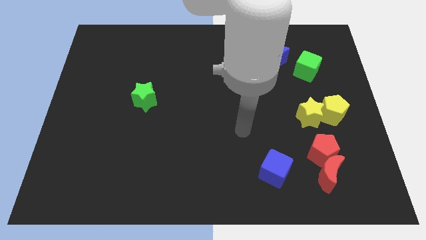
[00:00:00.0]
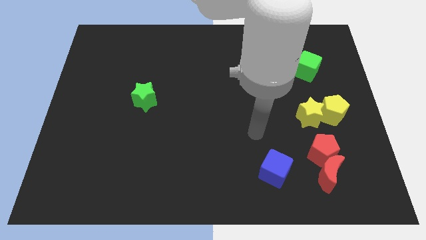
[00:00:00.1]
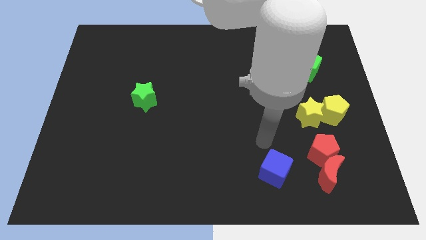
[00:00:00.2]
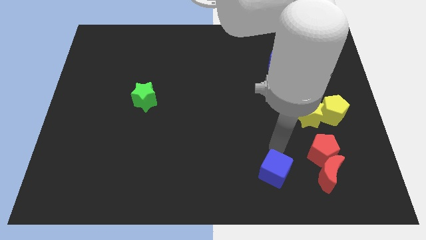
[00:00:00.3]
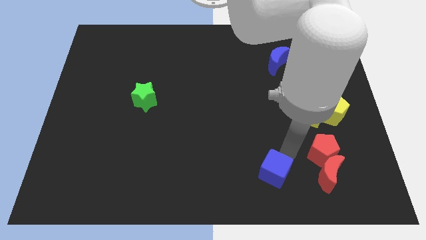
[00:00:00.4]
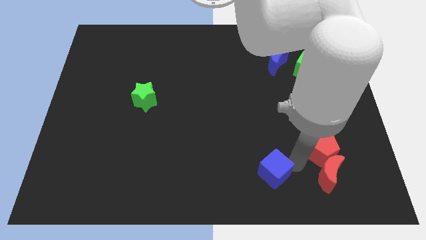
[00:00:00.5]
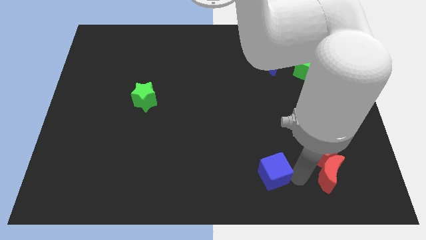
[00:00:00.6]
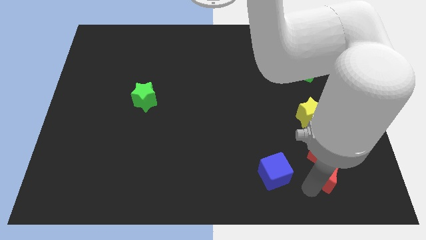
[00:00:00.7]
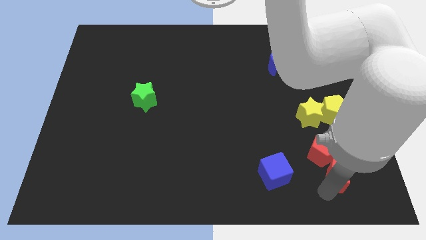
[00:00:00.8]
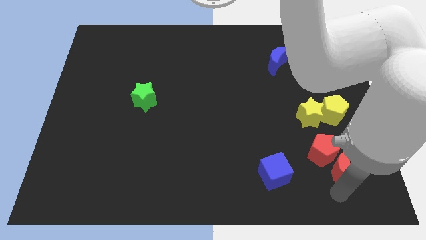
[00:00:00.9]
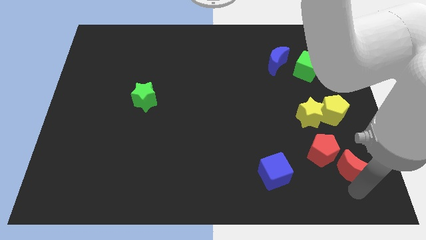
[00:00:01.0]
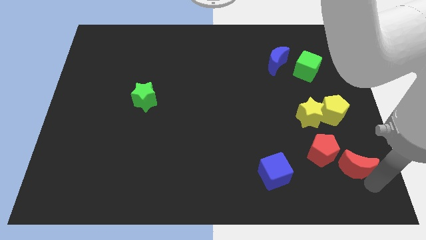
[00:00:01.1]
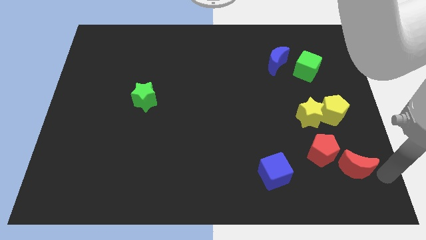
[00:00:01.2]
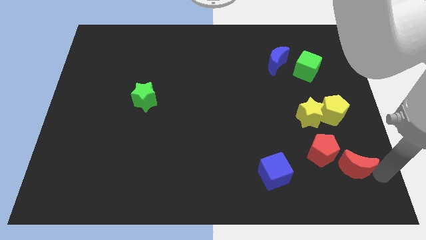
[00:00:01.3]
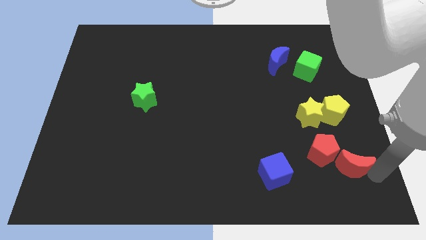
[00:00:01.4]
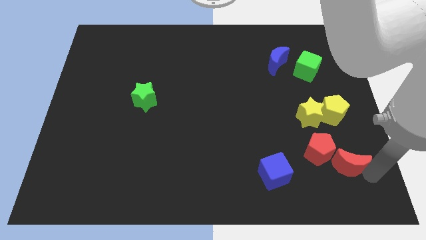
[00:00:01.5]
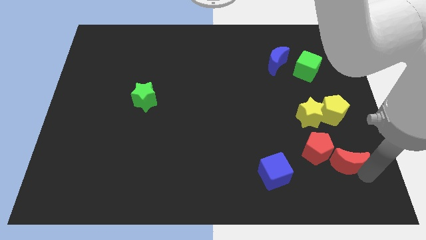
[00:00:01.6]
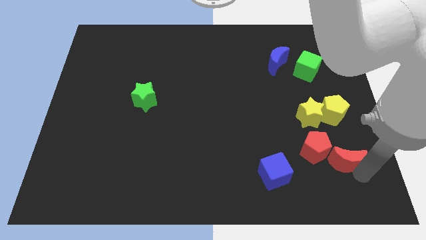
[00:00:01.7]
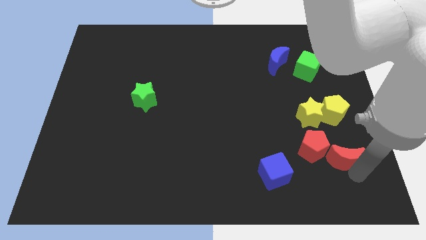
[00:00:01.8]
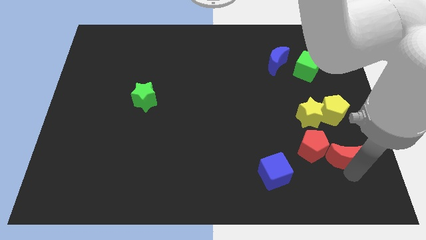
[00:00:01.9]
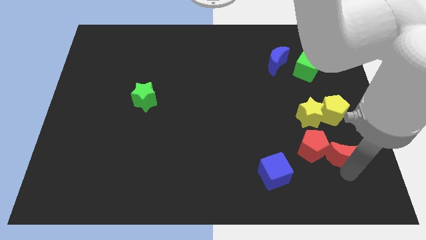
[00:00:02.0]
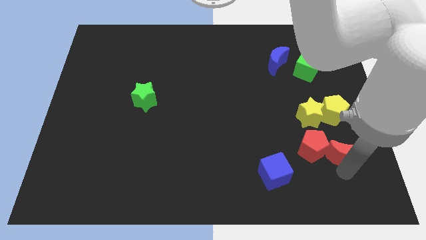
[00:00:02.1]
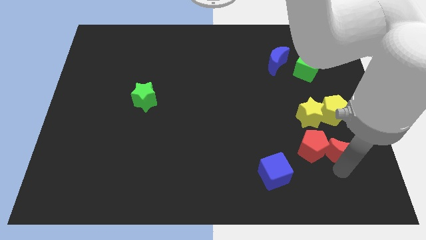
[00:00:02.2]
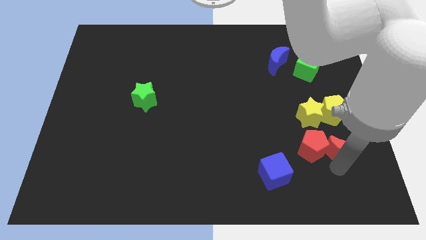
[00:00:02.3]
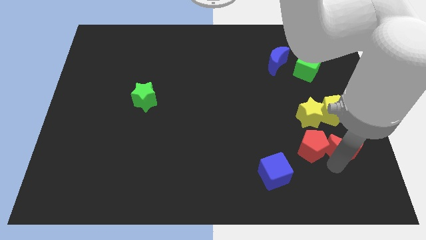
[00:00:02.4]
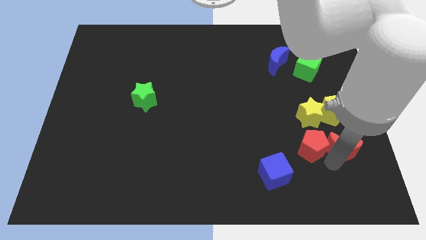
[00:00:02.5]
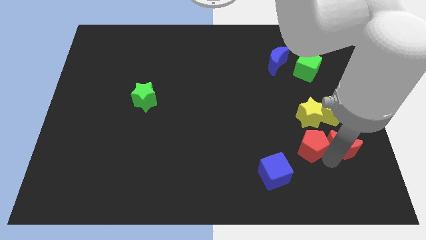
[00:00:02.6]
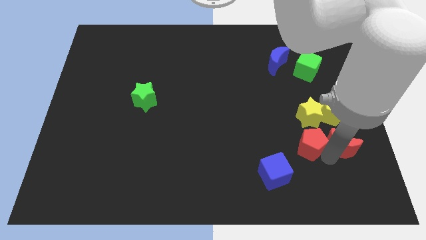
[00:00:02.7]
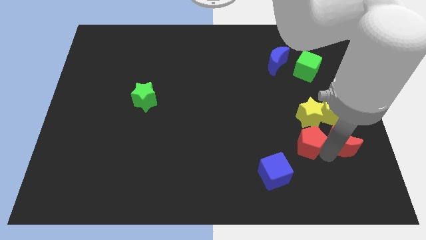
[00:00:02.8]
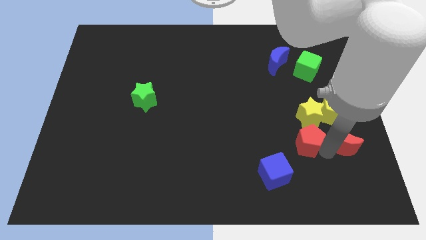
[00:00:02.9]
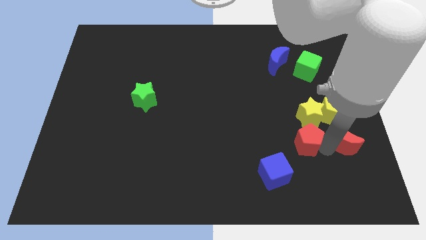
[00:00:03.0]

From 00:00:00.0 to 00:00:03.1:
slide the red moon upwards a little

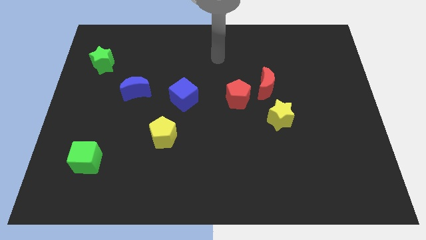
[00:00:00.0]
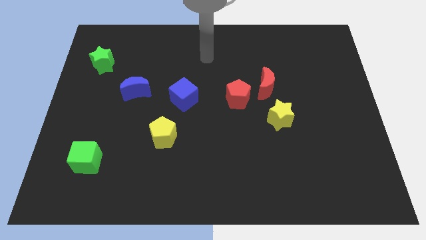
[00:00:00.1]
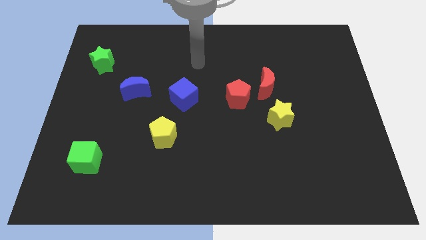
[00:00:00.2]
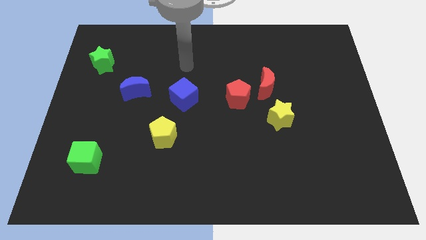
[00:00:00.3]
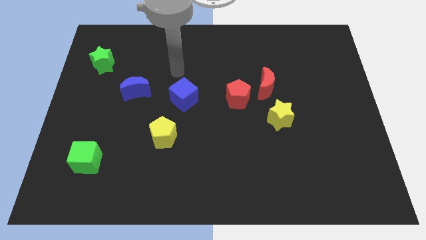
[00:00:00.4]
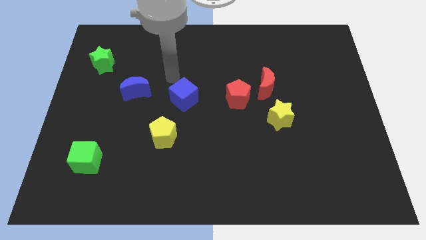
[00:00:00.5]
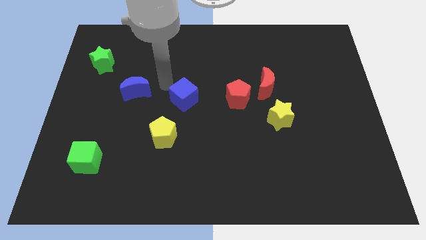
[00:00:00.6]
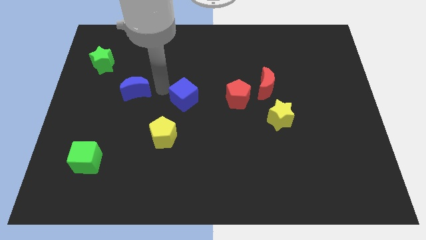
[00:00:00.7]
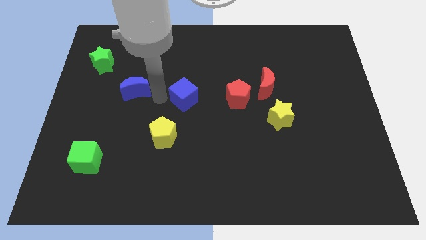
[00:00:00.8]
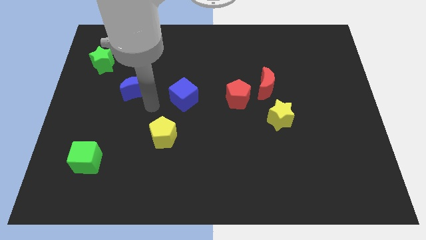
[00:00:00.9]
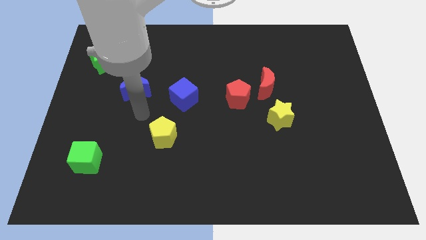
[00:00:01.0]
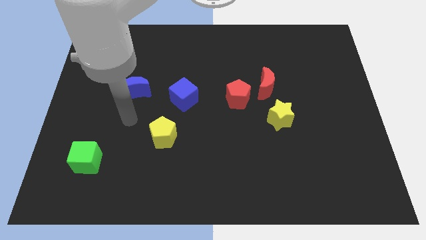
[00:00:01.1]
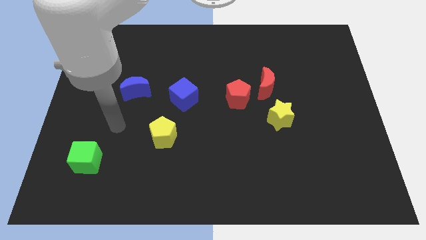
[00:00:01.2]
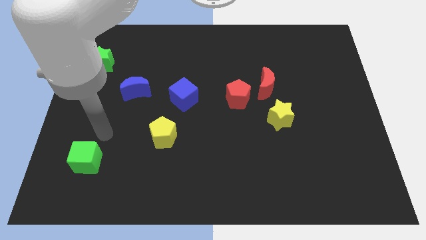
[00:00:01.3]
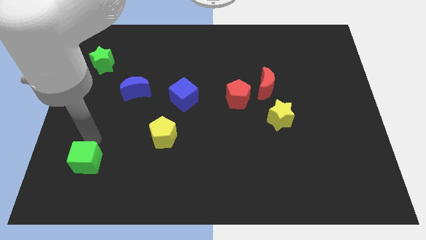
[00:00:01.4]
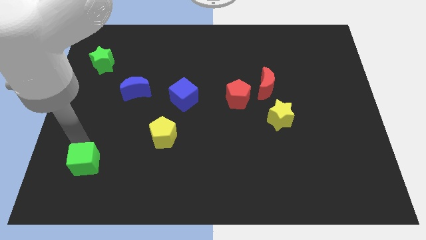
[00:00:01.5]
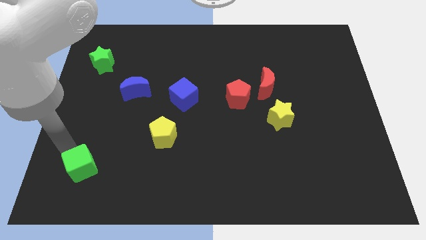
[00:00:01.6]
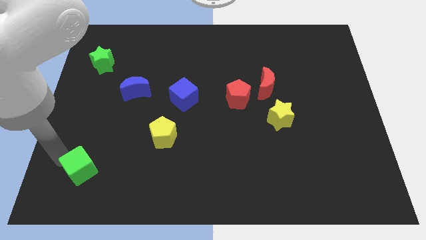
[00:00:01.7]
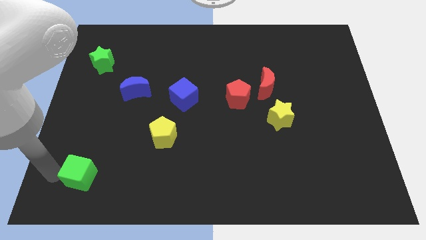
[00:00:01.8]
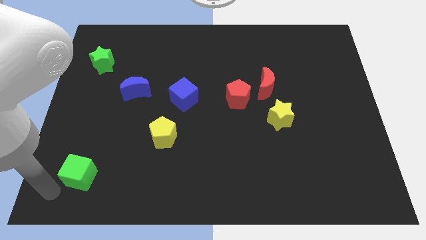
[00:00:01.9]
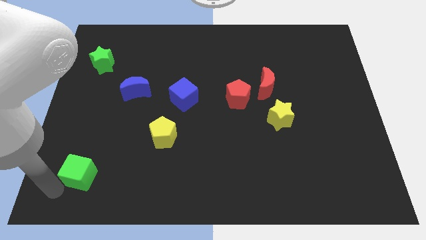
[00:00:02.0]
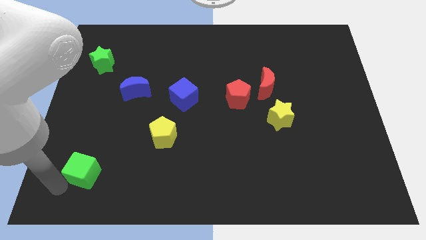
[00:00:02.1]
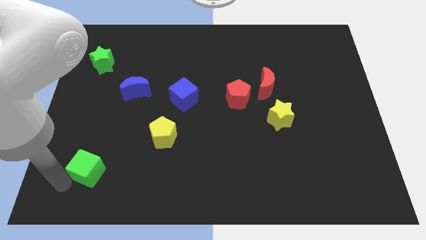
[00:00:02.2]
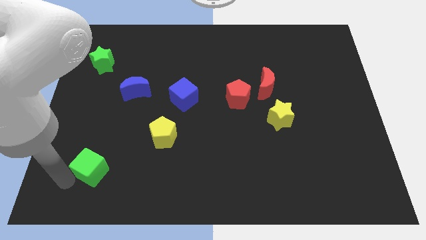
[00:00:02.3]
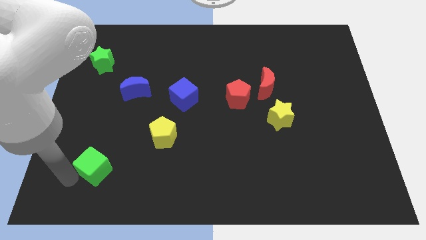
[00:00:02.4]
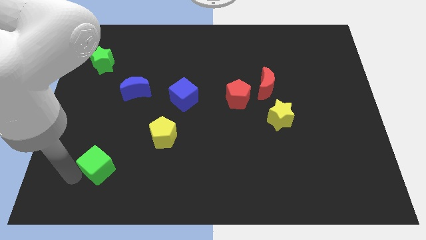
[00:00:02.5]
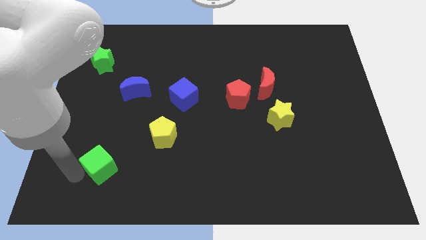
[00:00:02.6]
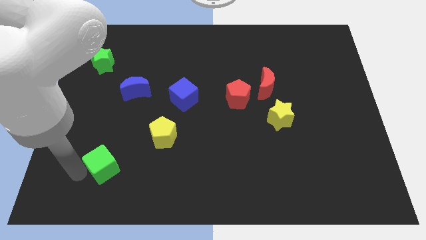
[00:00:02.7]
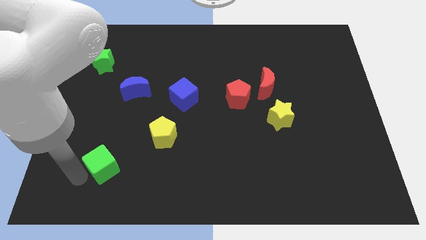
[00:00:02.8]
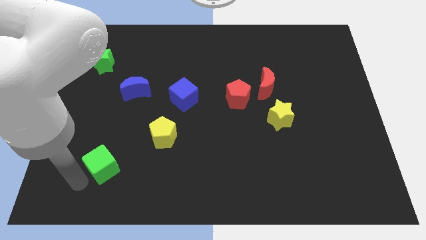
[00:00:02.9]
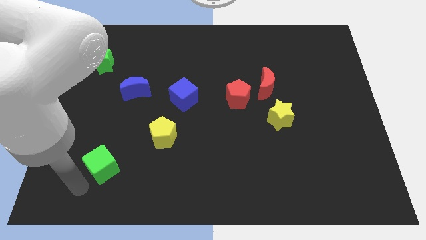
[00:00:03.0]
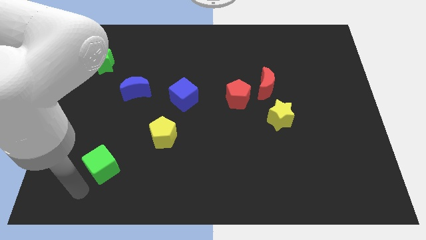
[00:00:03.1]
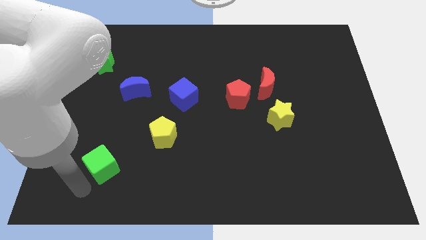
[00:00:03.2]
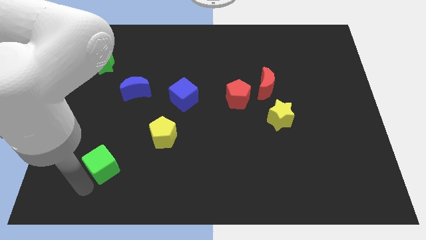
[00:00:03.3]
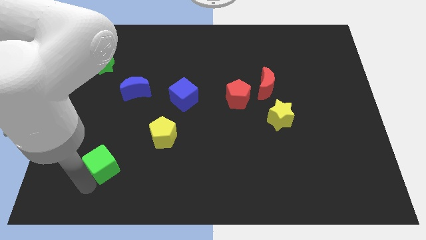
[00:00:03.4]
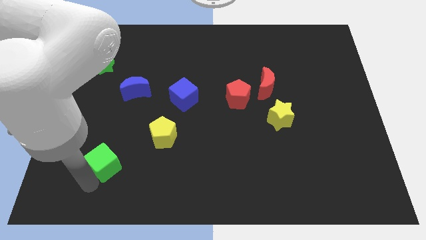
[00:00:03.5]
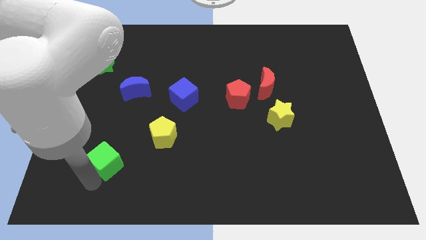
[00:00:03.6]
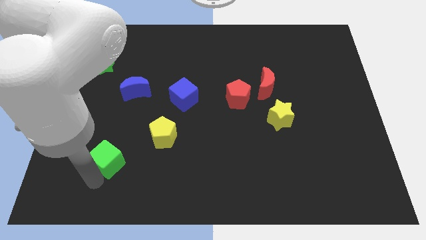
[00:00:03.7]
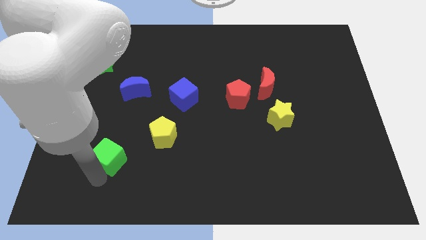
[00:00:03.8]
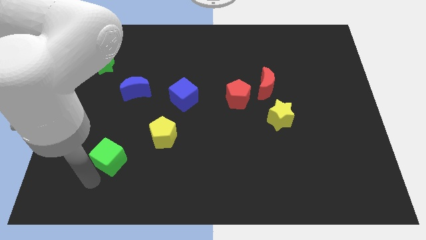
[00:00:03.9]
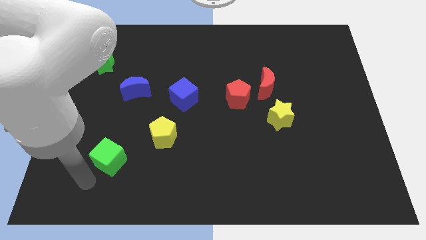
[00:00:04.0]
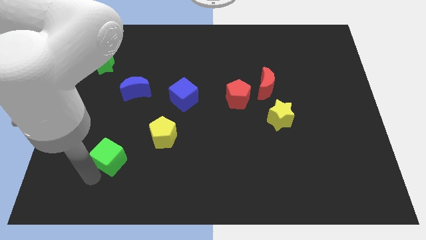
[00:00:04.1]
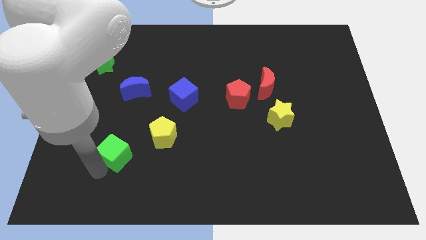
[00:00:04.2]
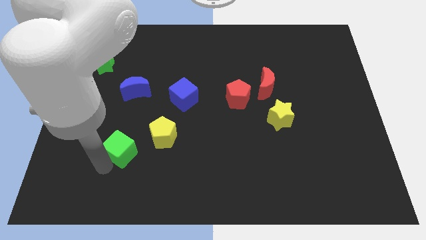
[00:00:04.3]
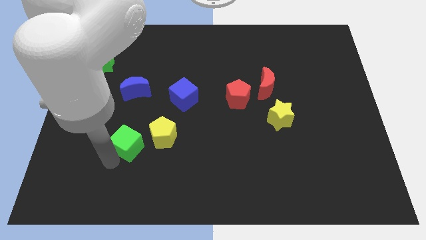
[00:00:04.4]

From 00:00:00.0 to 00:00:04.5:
slightly slide the green cube diagonally upwards and right

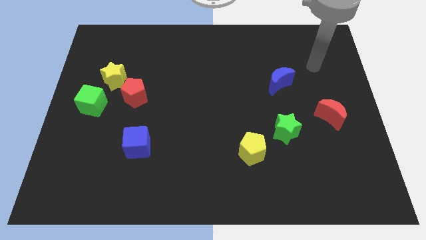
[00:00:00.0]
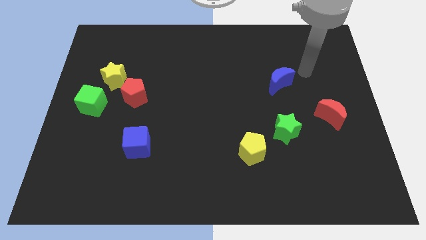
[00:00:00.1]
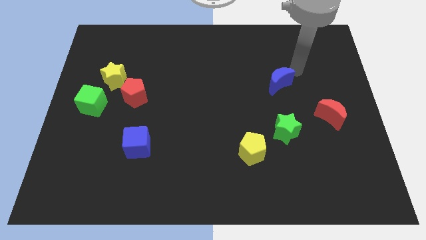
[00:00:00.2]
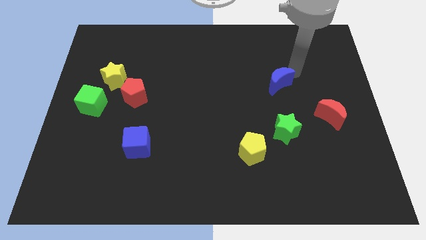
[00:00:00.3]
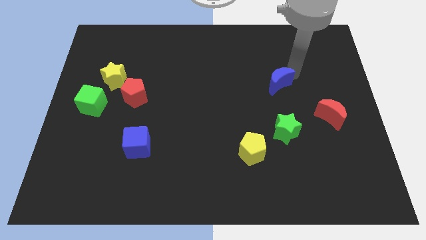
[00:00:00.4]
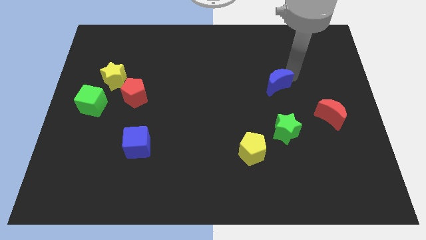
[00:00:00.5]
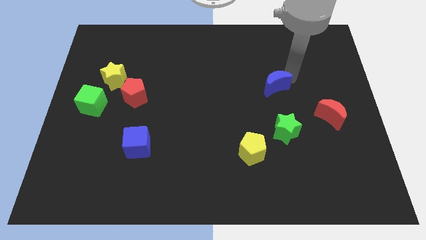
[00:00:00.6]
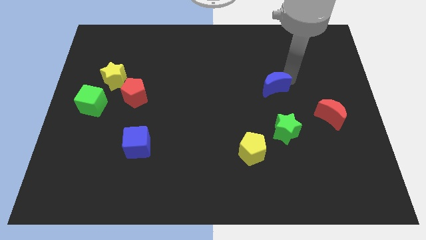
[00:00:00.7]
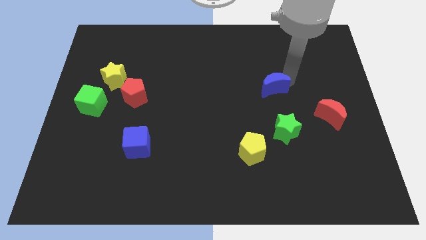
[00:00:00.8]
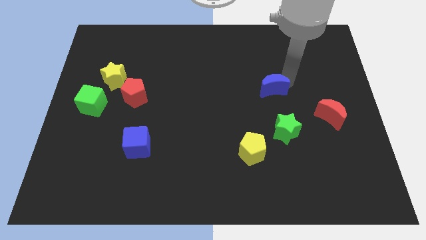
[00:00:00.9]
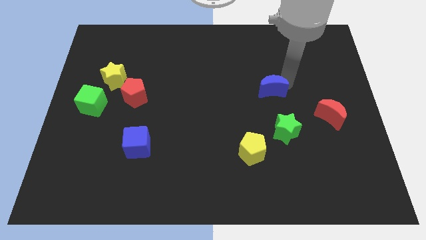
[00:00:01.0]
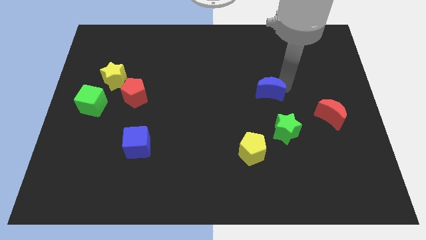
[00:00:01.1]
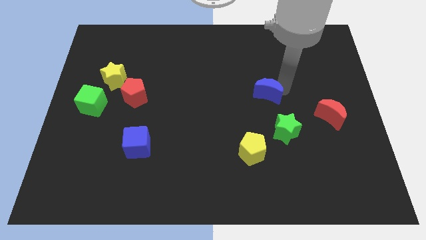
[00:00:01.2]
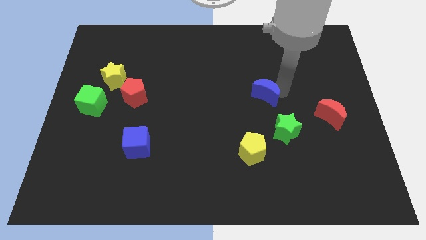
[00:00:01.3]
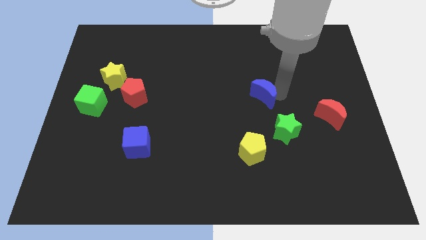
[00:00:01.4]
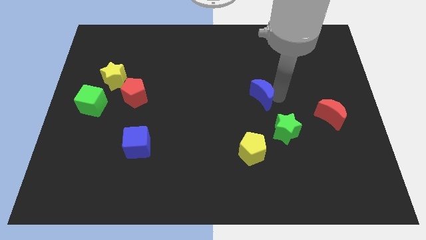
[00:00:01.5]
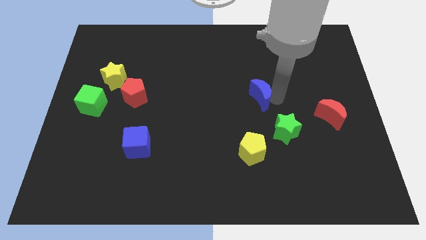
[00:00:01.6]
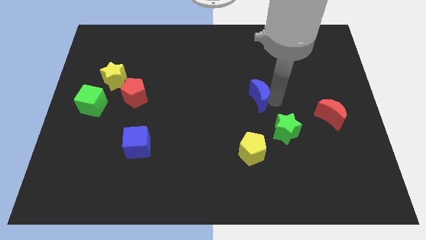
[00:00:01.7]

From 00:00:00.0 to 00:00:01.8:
slide the blue moon diagonally down and left a little bit
